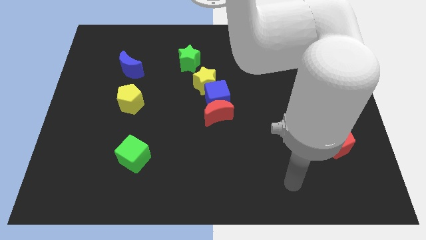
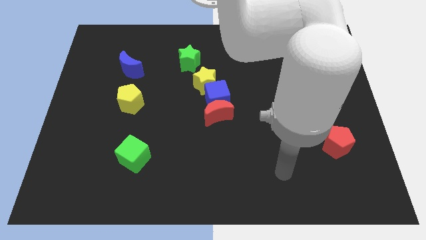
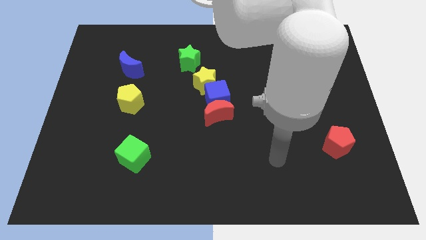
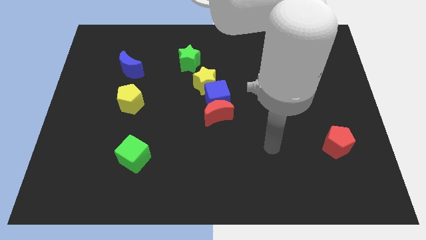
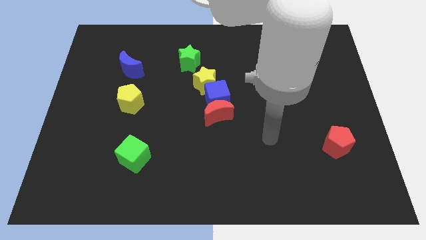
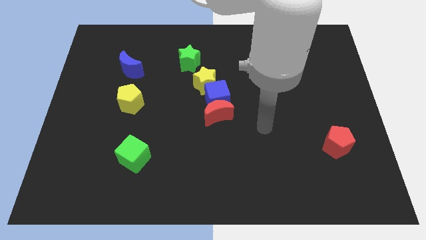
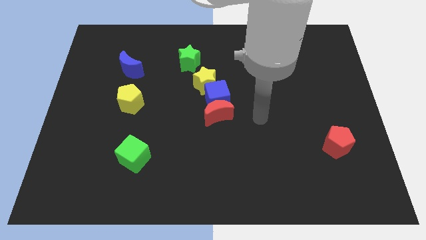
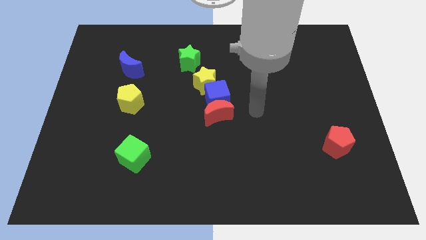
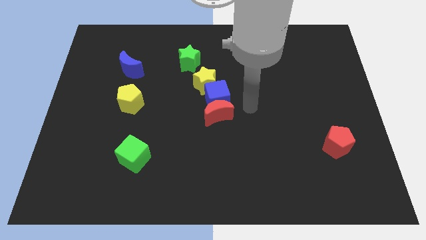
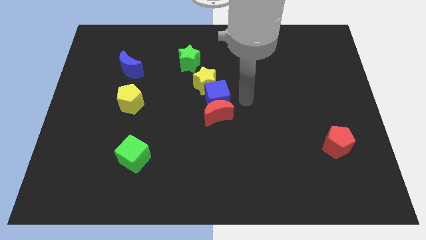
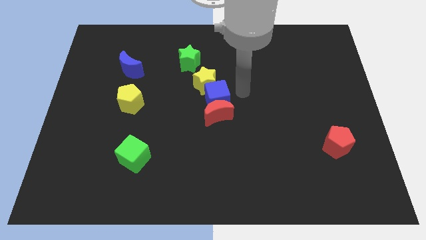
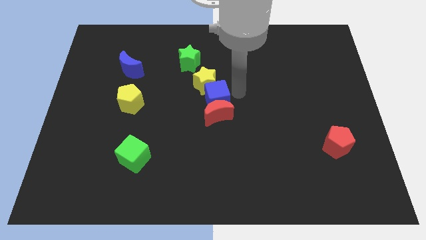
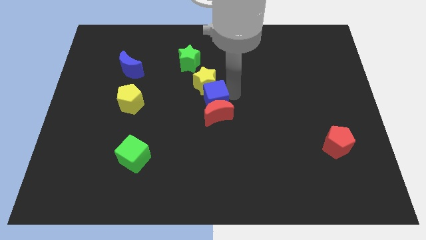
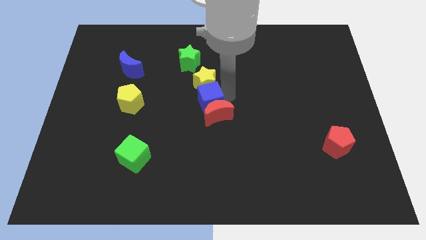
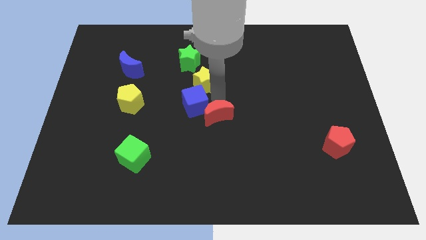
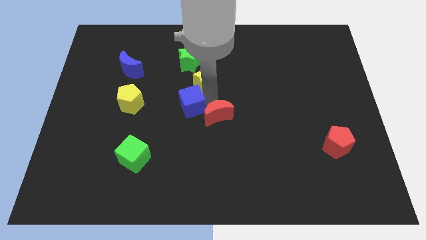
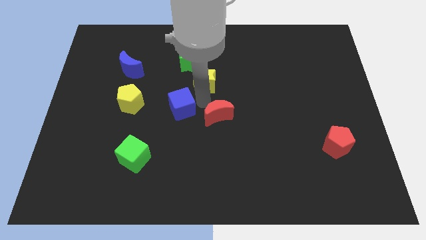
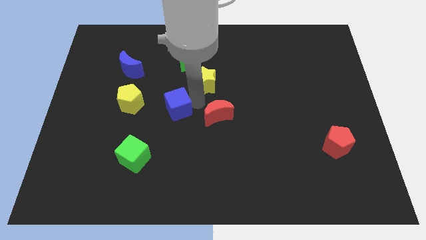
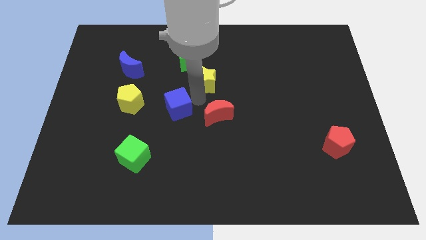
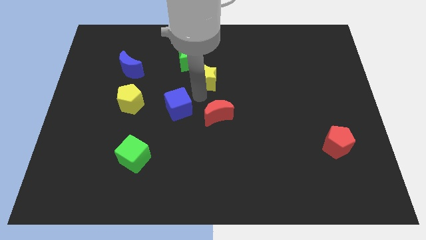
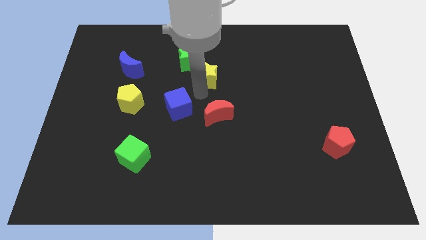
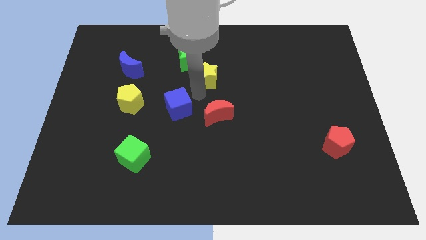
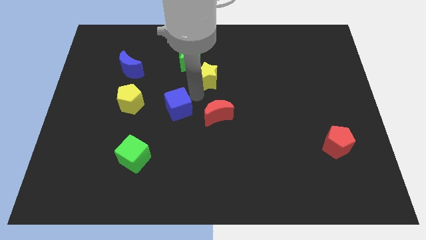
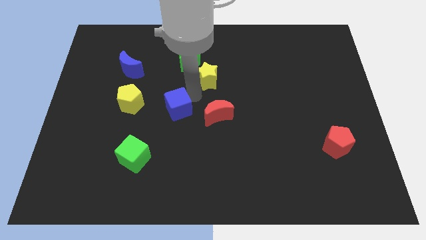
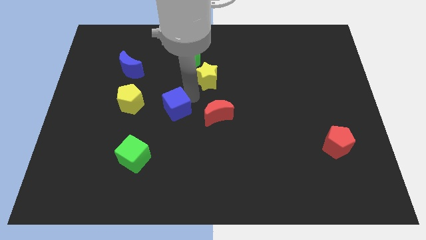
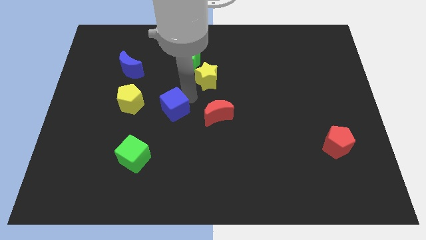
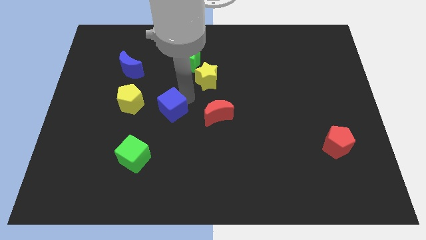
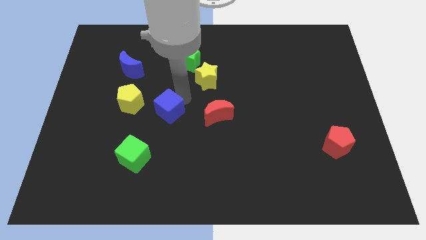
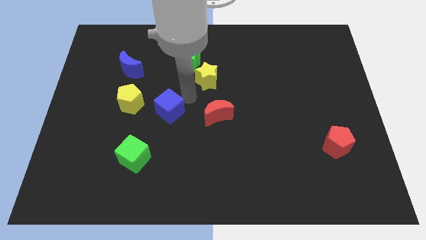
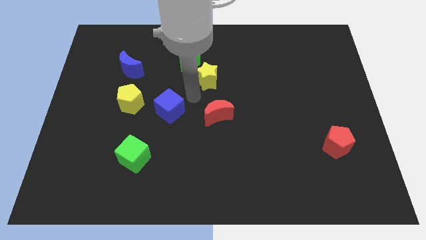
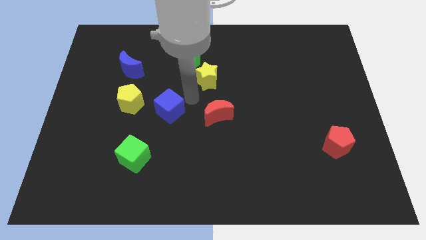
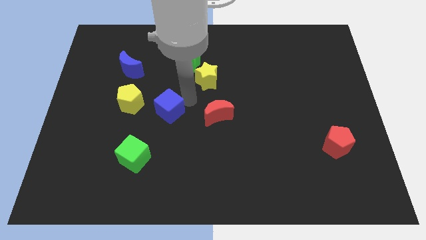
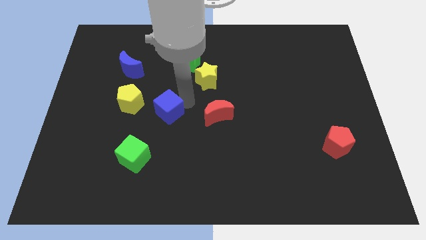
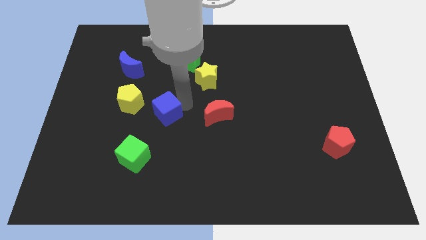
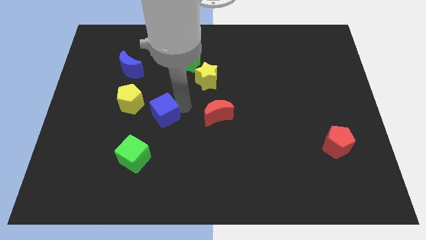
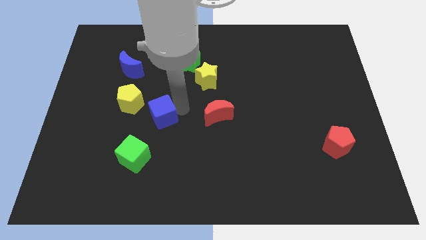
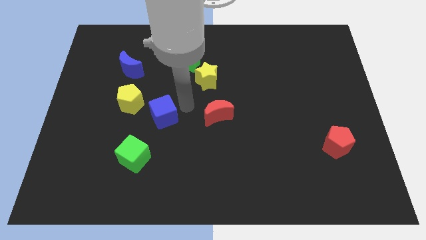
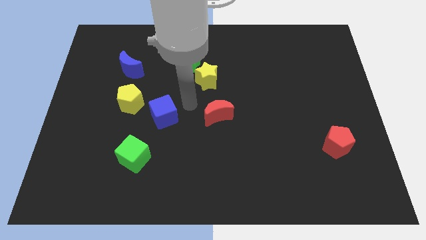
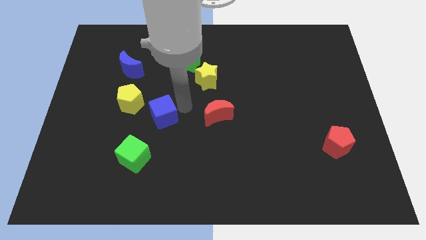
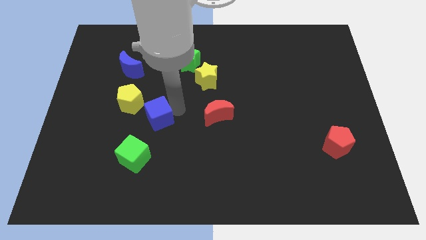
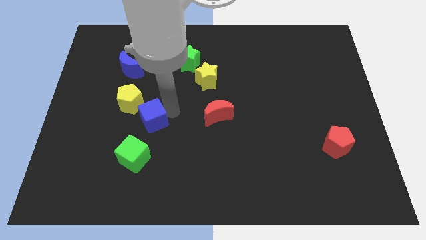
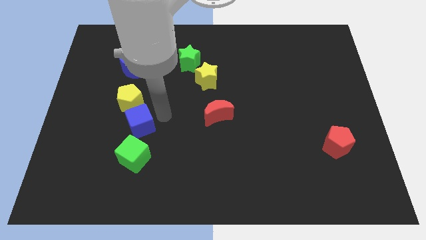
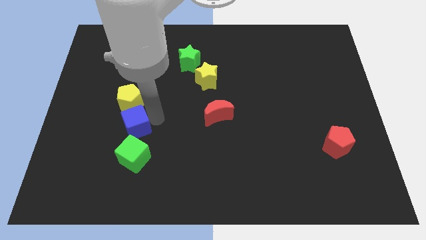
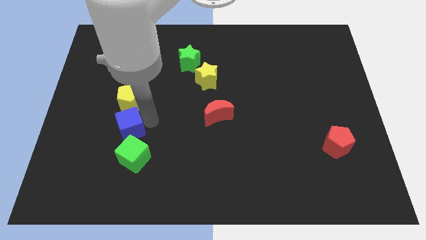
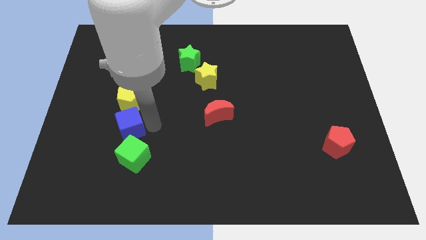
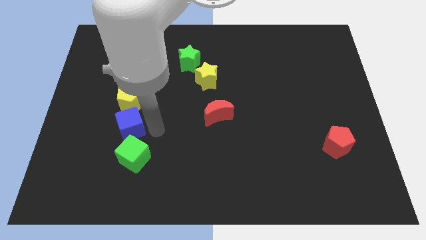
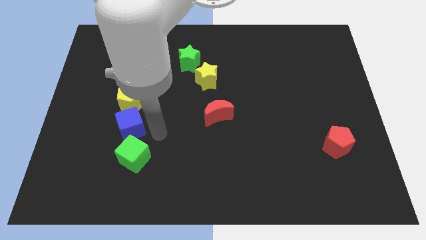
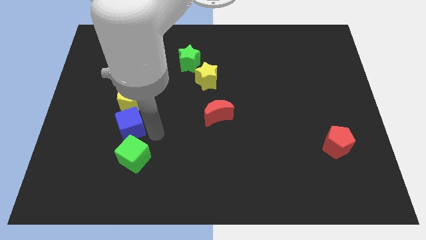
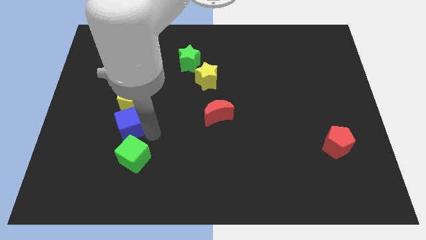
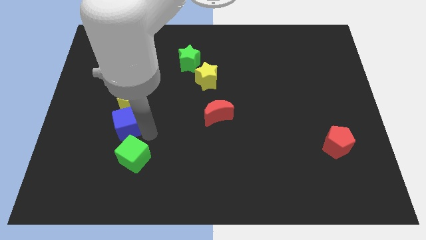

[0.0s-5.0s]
push the blue cube to the bottom left of the yellow pentagon

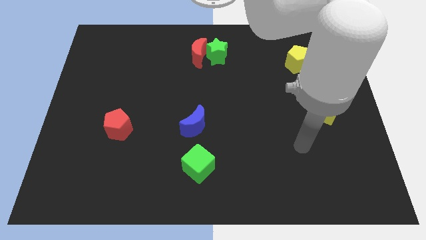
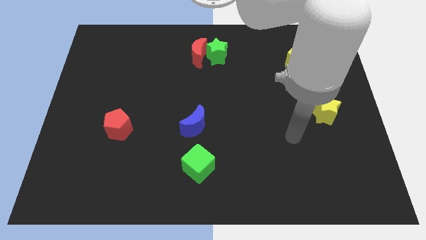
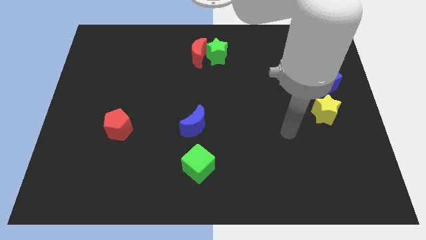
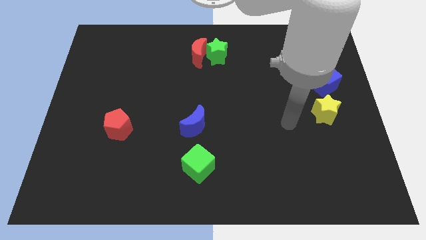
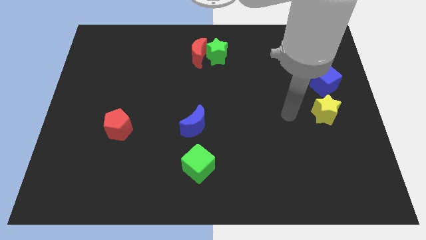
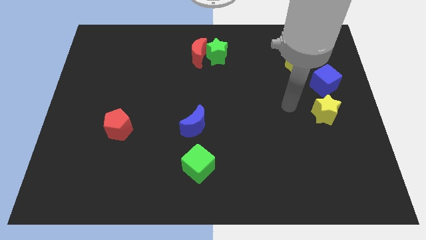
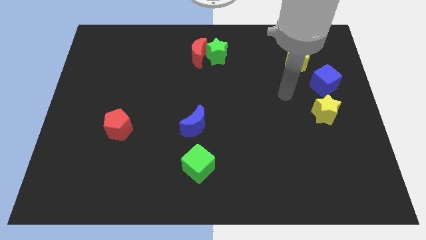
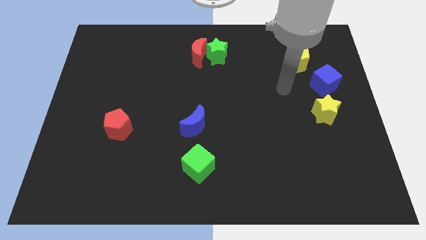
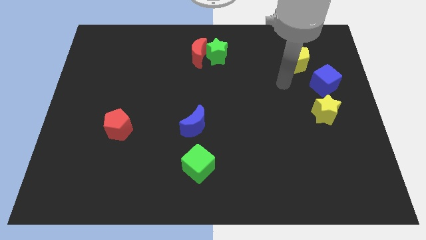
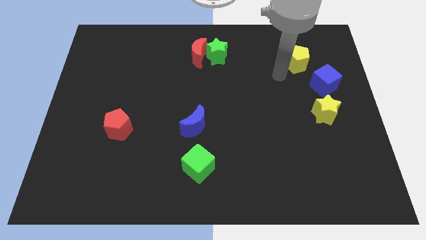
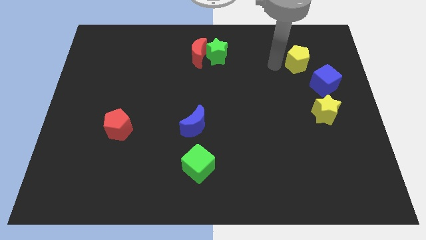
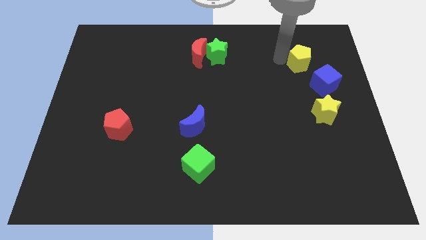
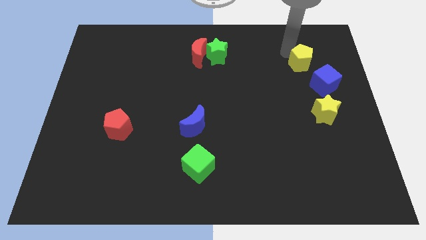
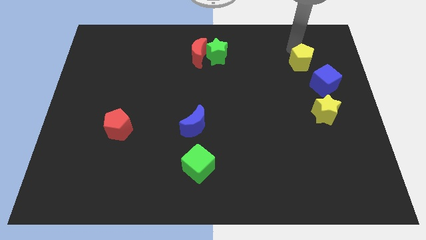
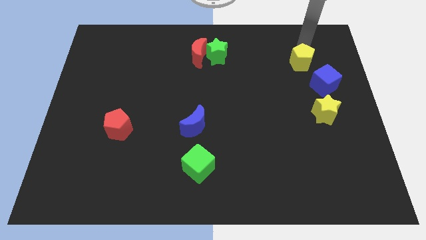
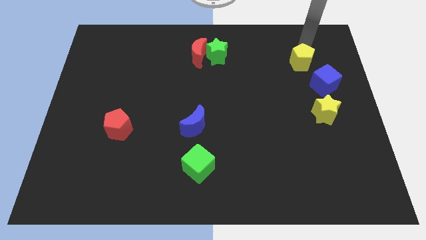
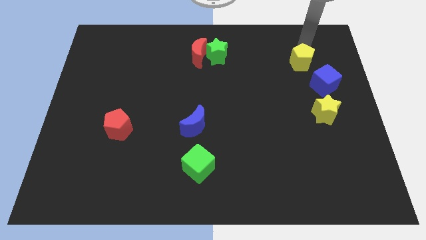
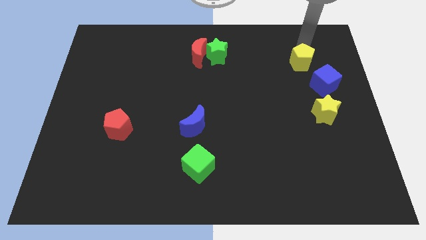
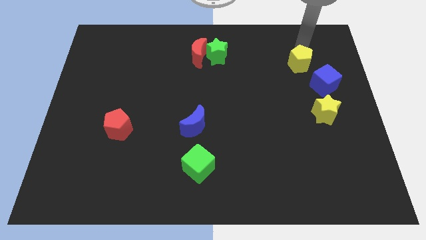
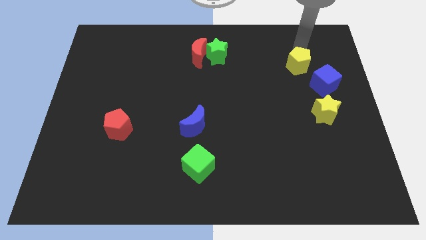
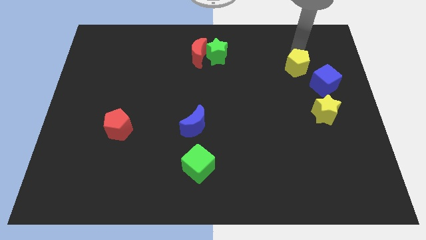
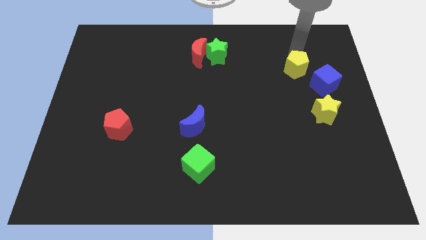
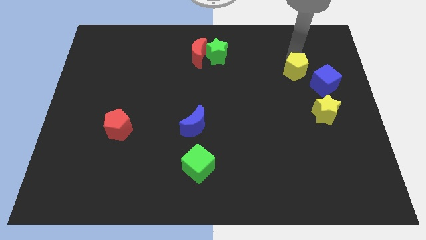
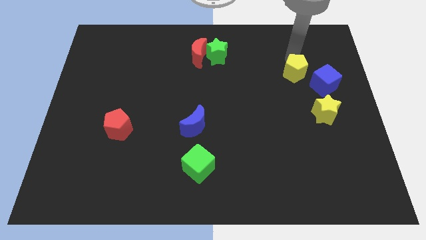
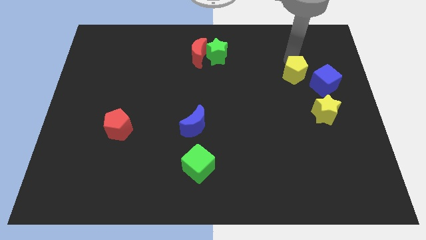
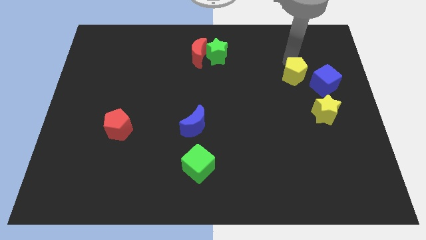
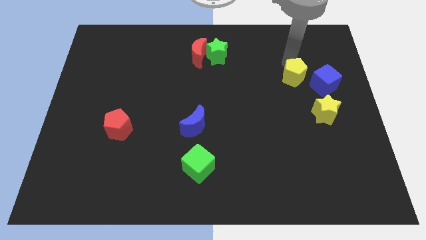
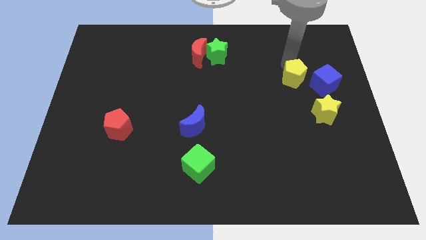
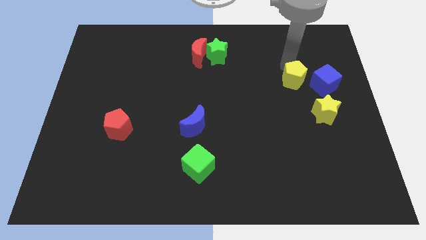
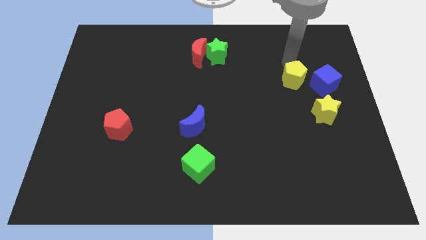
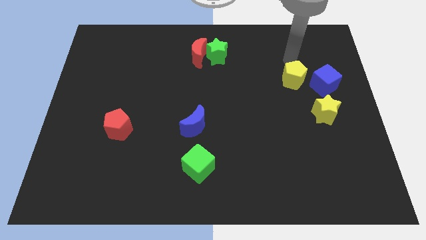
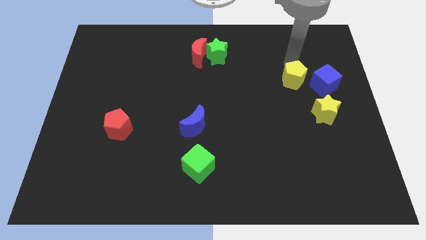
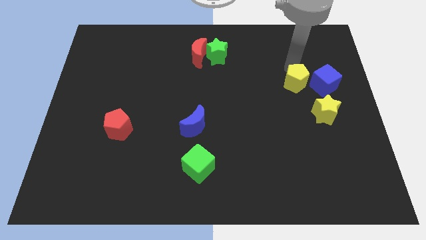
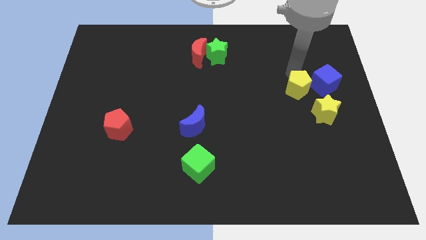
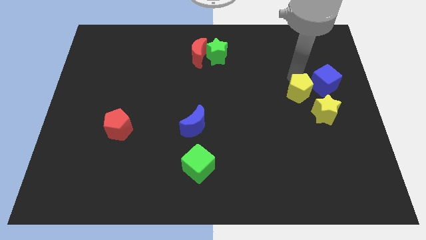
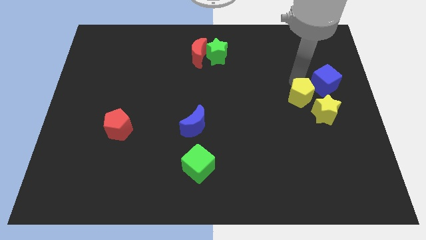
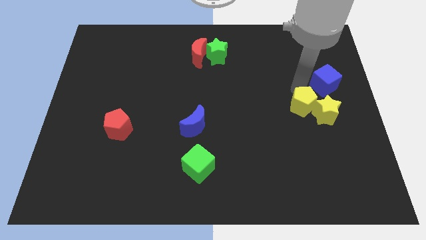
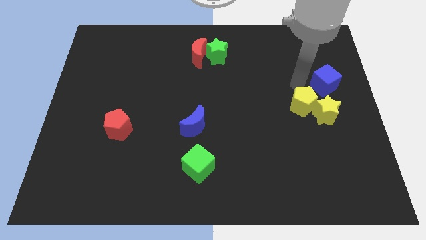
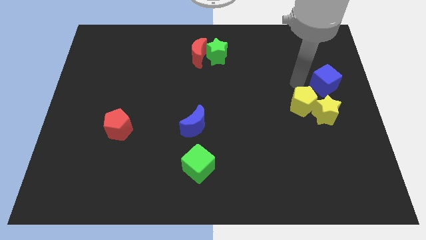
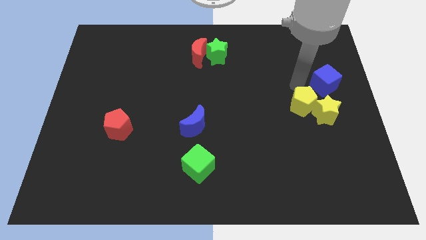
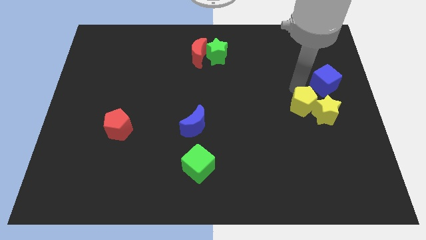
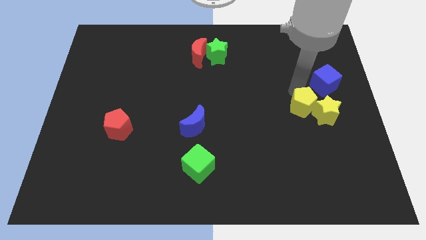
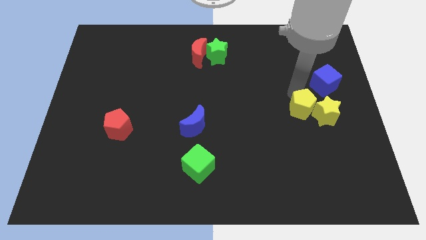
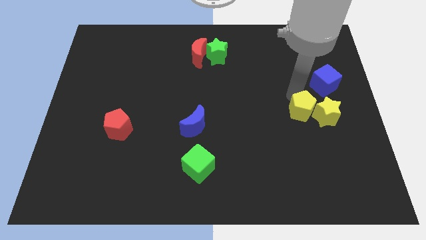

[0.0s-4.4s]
put the yellow pentagon diagonally down and to the left of the yellow star
